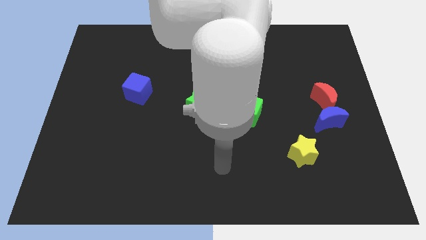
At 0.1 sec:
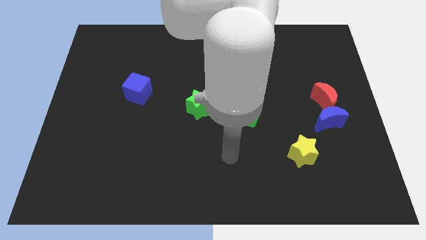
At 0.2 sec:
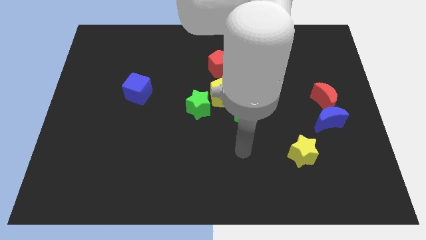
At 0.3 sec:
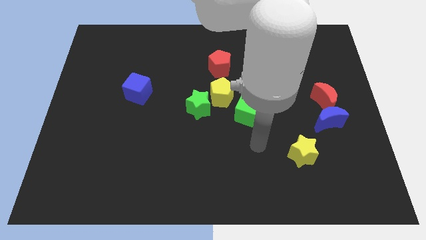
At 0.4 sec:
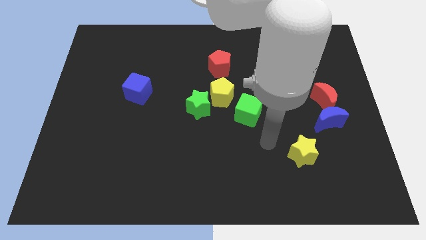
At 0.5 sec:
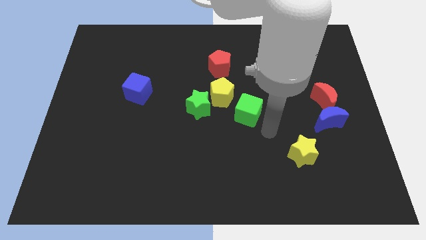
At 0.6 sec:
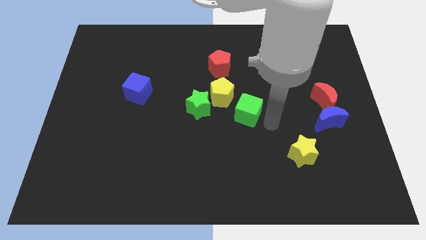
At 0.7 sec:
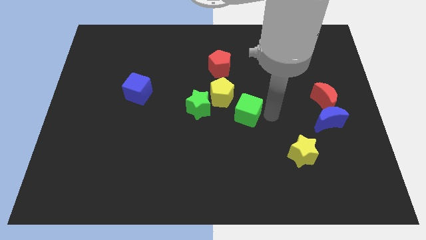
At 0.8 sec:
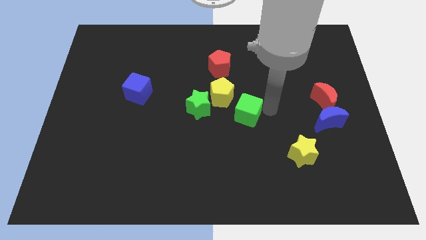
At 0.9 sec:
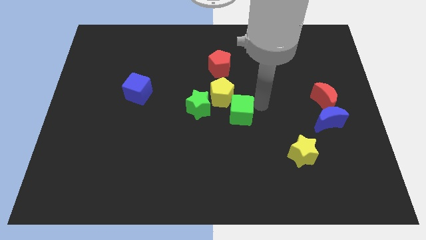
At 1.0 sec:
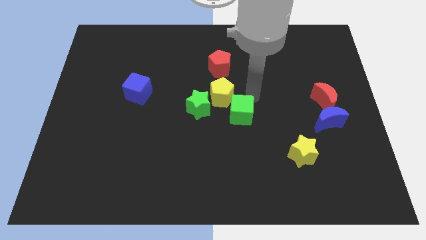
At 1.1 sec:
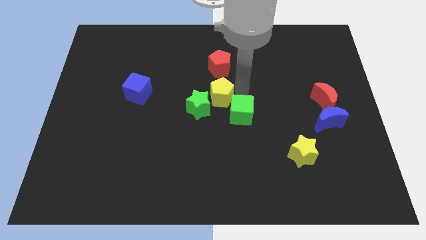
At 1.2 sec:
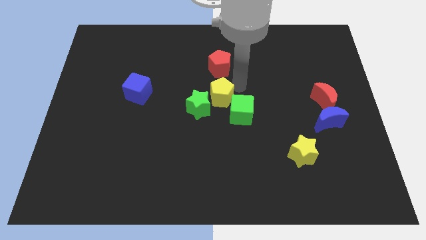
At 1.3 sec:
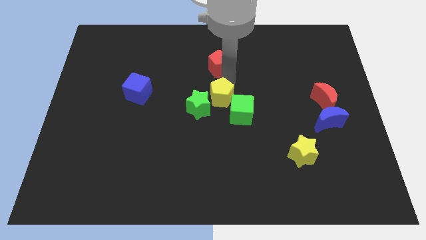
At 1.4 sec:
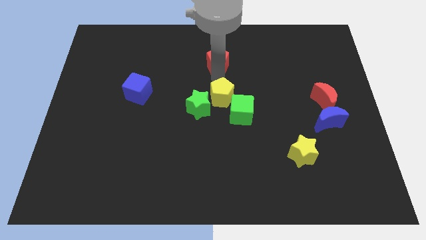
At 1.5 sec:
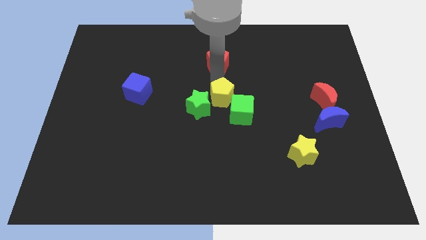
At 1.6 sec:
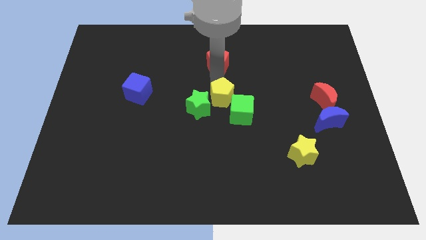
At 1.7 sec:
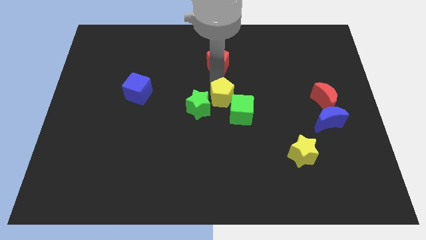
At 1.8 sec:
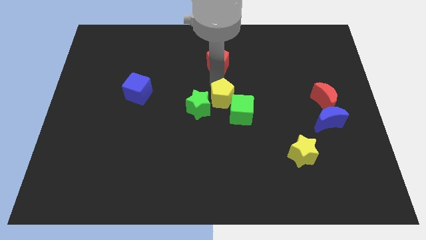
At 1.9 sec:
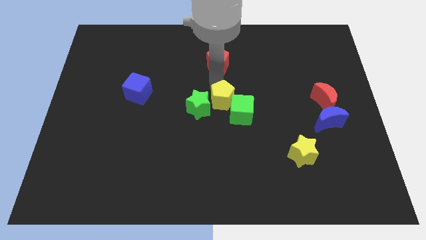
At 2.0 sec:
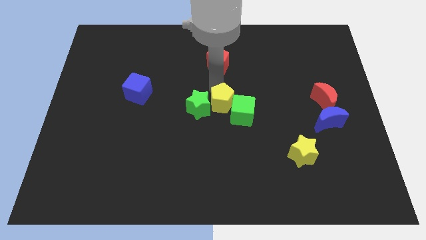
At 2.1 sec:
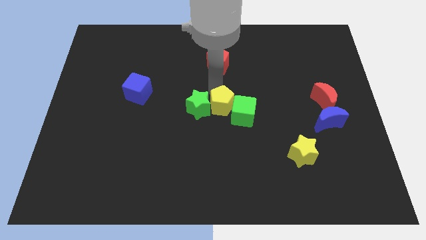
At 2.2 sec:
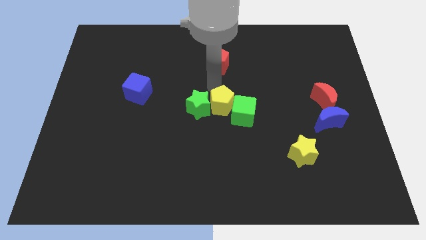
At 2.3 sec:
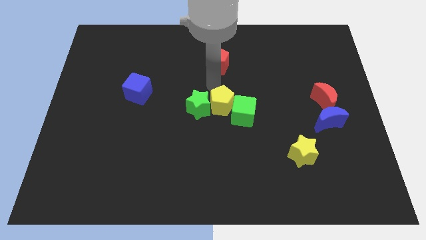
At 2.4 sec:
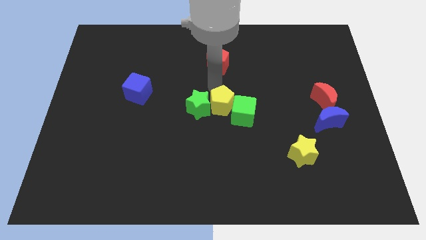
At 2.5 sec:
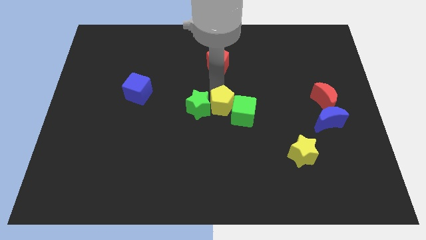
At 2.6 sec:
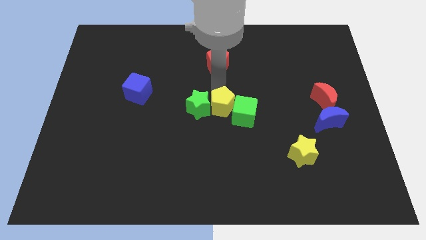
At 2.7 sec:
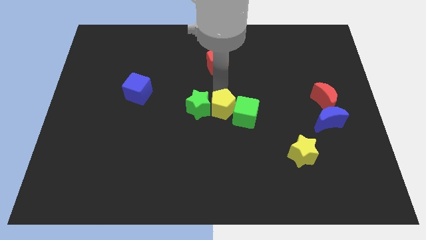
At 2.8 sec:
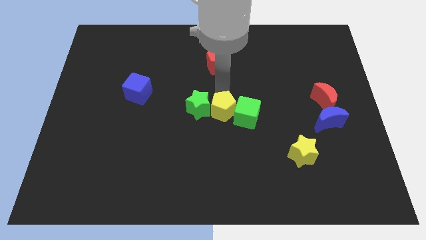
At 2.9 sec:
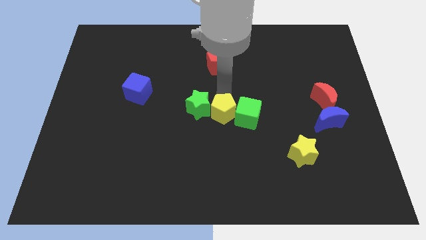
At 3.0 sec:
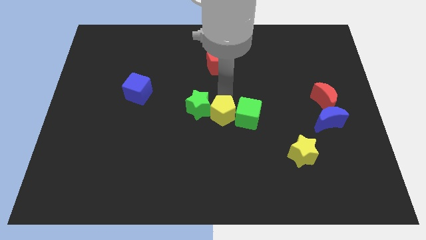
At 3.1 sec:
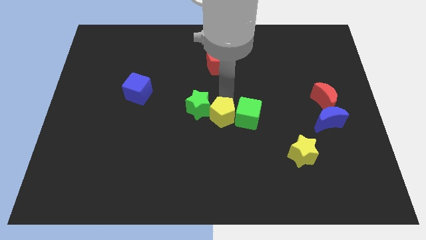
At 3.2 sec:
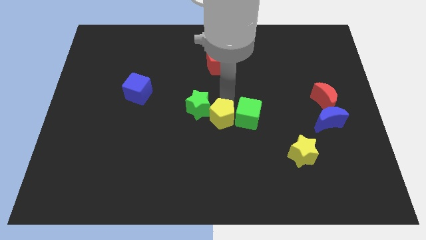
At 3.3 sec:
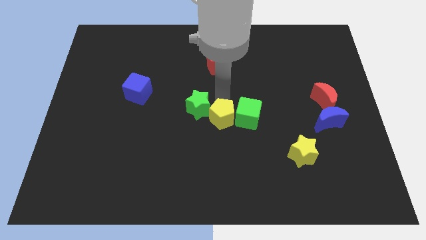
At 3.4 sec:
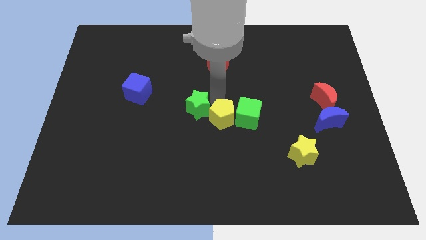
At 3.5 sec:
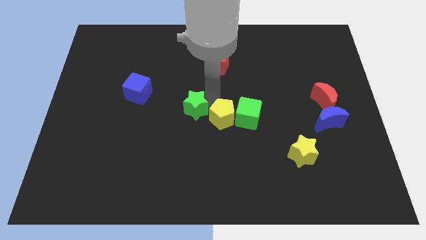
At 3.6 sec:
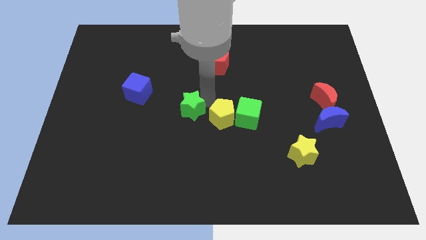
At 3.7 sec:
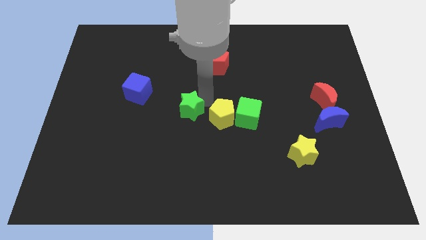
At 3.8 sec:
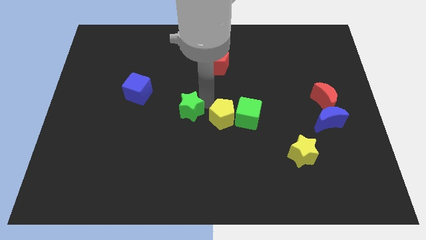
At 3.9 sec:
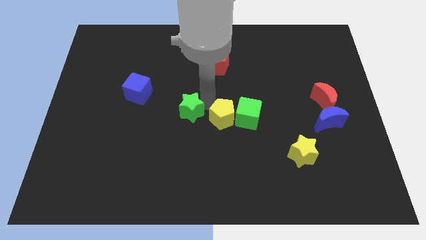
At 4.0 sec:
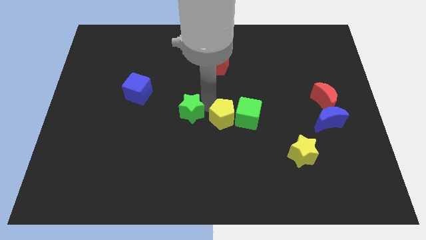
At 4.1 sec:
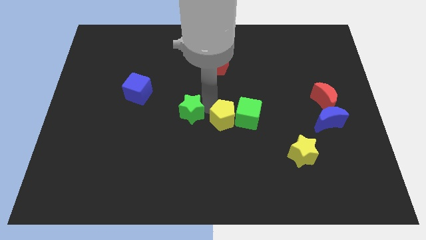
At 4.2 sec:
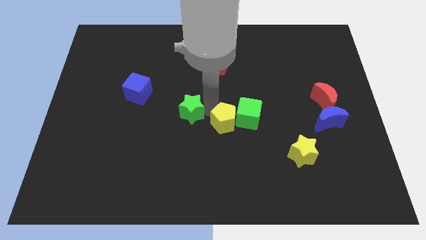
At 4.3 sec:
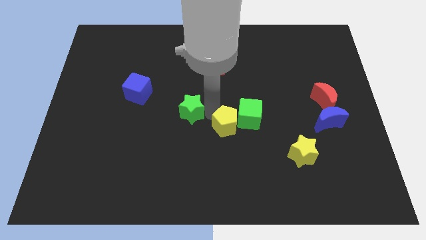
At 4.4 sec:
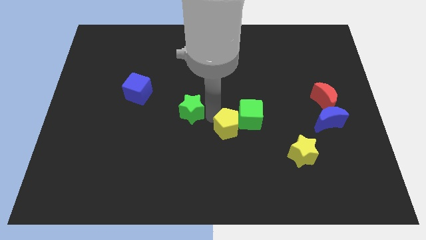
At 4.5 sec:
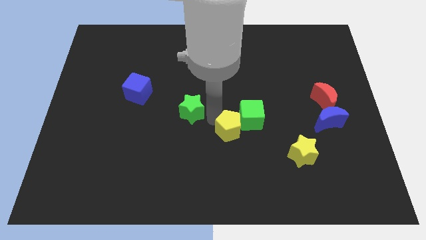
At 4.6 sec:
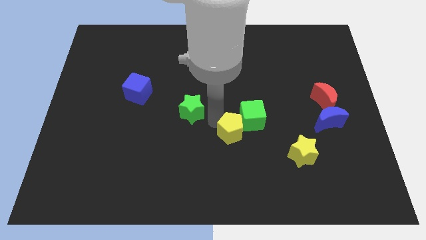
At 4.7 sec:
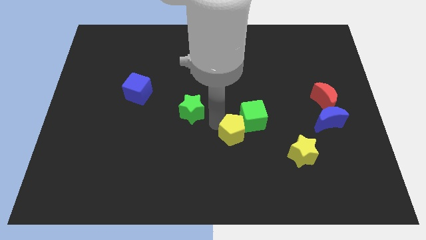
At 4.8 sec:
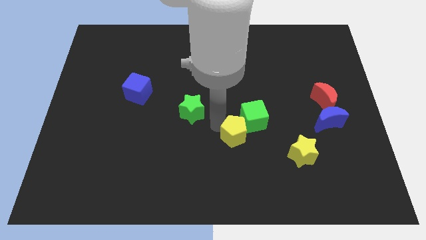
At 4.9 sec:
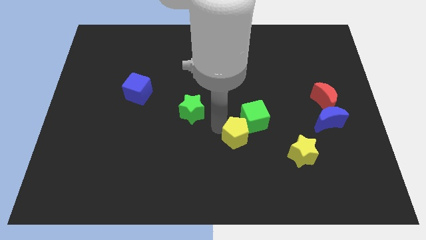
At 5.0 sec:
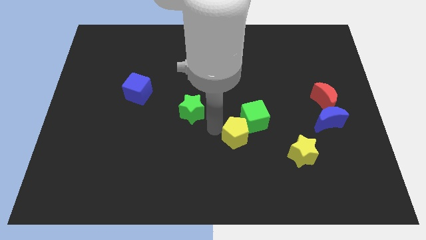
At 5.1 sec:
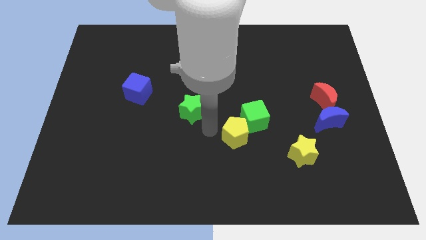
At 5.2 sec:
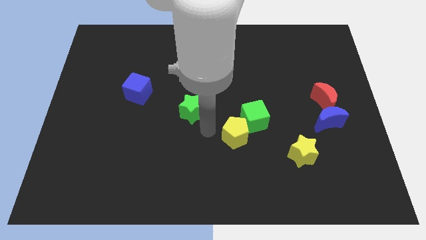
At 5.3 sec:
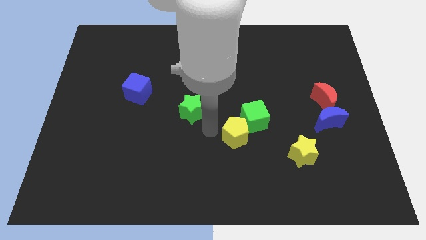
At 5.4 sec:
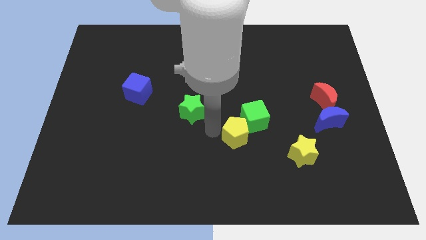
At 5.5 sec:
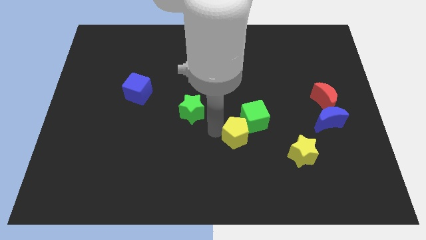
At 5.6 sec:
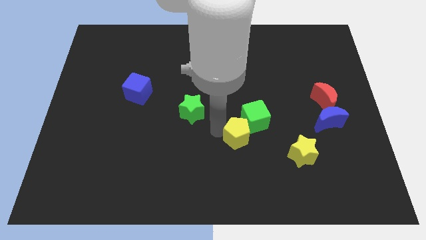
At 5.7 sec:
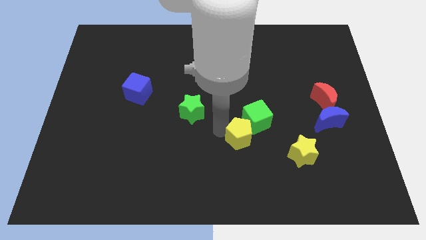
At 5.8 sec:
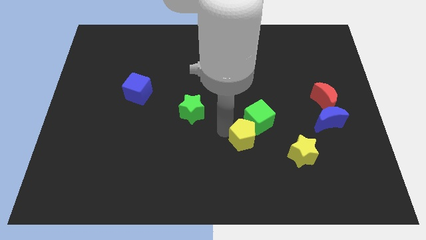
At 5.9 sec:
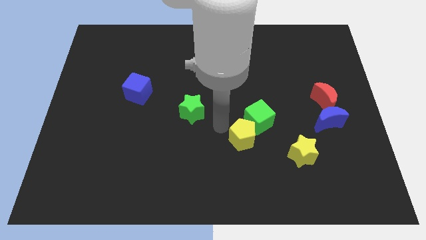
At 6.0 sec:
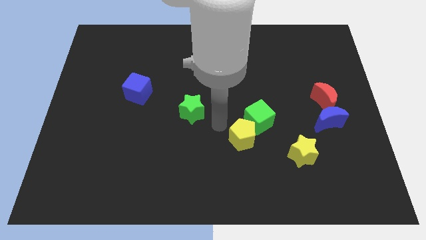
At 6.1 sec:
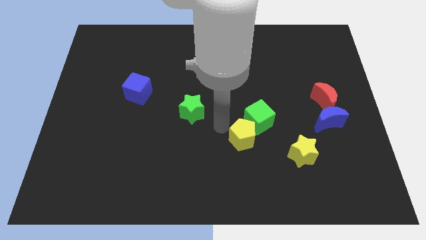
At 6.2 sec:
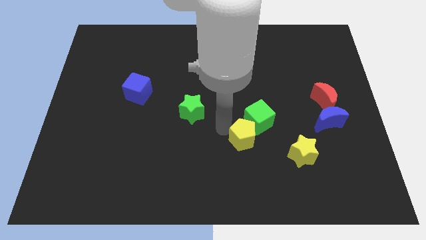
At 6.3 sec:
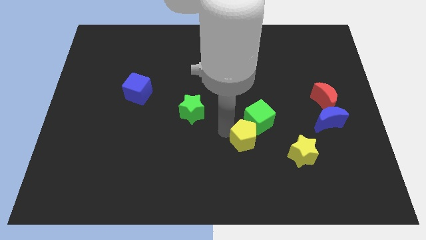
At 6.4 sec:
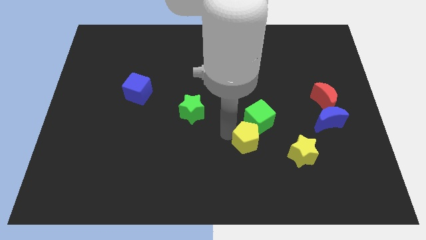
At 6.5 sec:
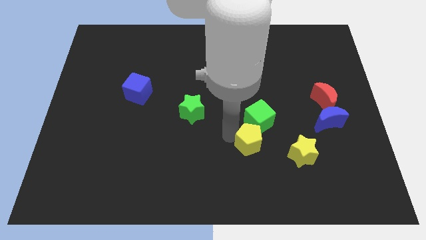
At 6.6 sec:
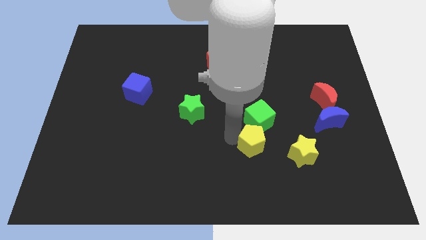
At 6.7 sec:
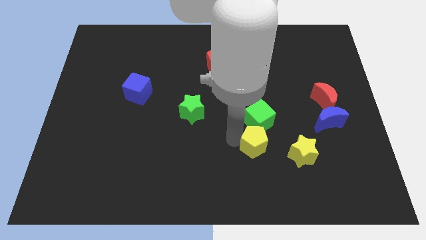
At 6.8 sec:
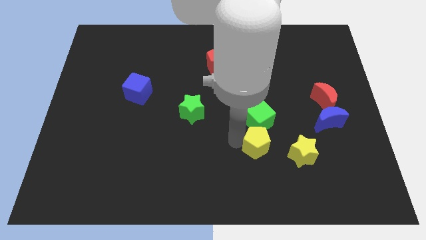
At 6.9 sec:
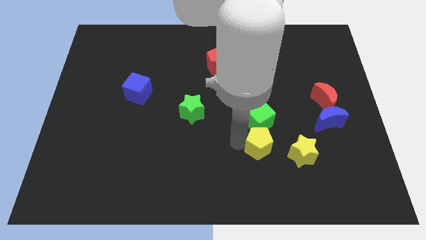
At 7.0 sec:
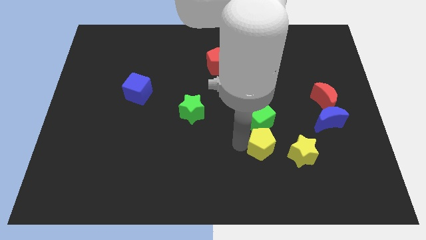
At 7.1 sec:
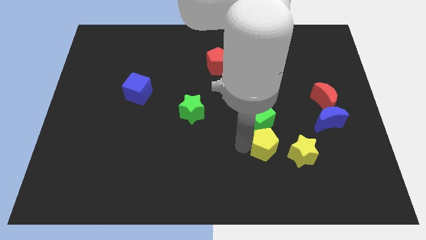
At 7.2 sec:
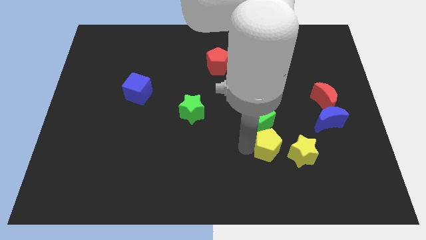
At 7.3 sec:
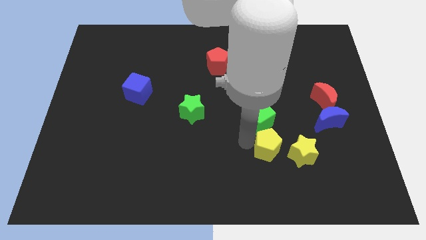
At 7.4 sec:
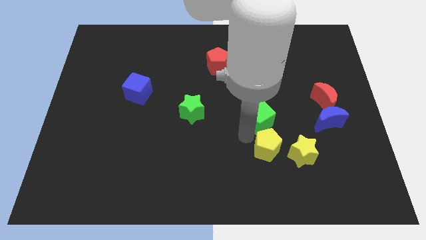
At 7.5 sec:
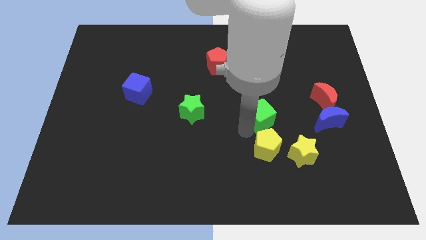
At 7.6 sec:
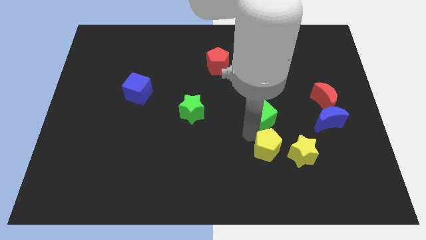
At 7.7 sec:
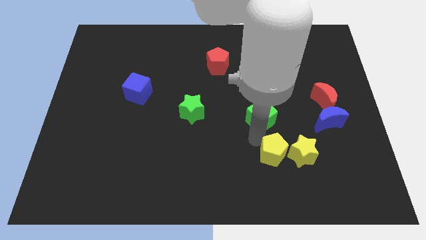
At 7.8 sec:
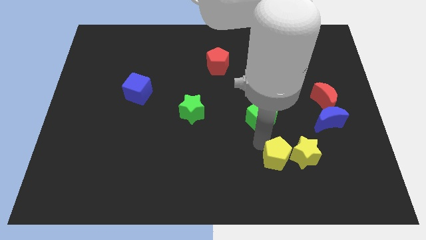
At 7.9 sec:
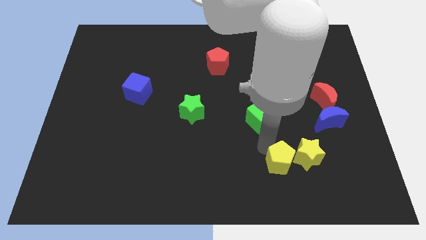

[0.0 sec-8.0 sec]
slide the yellow pentagon down and to the right diagonally
